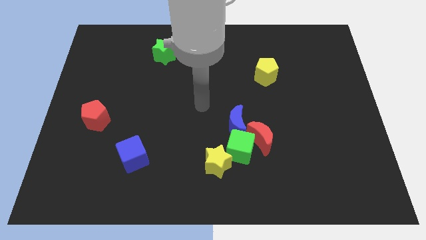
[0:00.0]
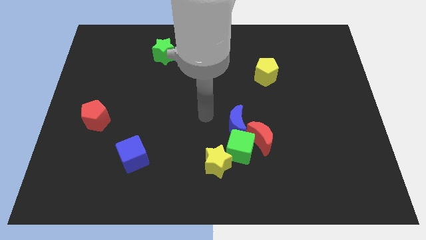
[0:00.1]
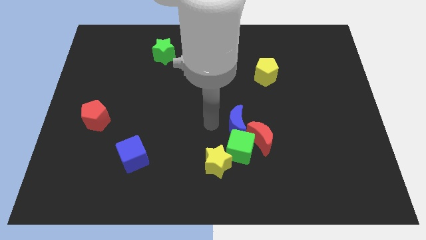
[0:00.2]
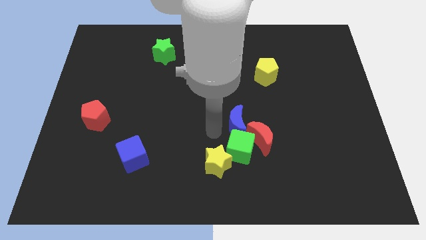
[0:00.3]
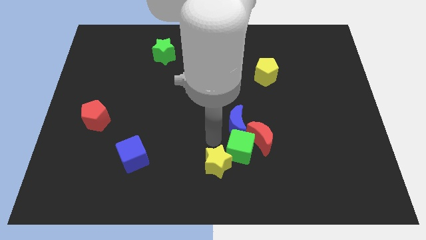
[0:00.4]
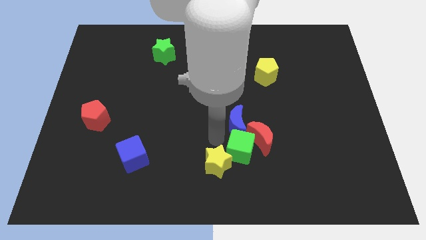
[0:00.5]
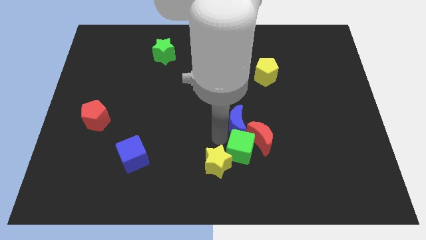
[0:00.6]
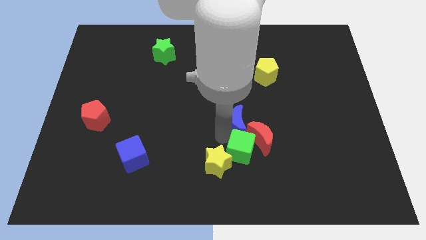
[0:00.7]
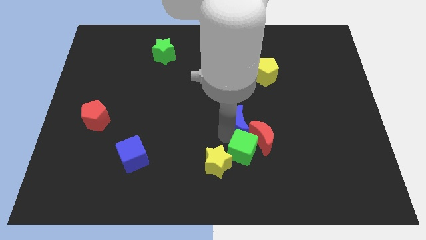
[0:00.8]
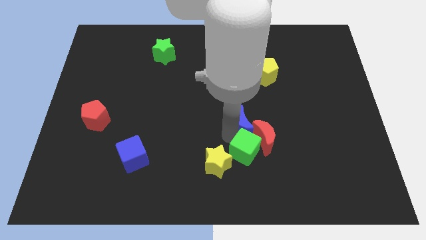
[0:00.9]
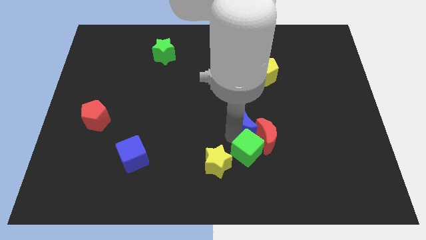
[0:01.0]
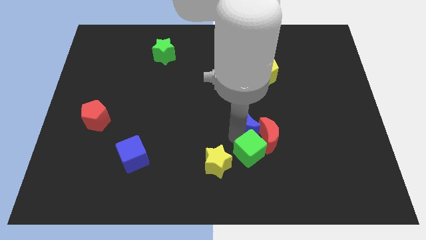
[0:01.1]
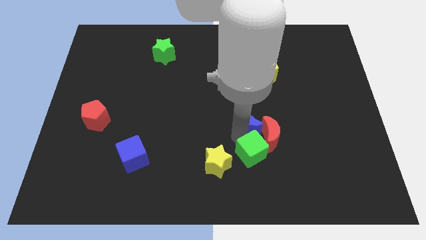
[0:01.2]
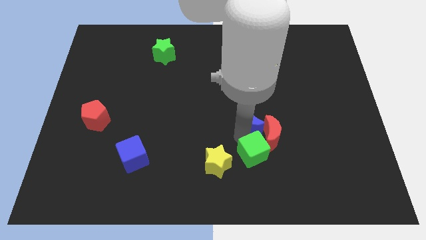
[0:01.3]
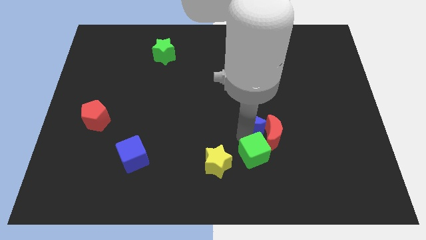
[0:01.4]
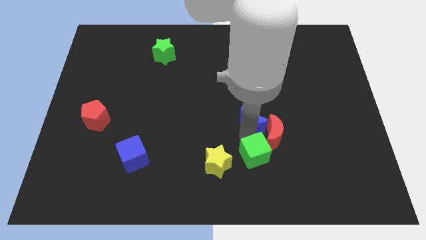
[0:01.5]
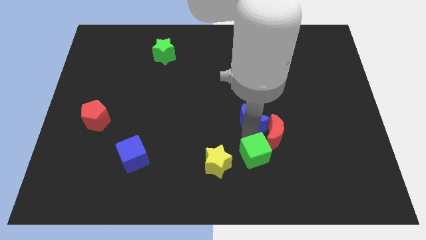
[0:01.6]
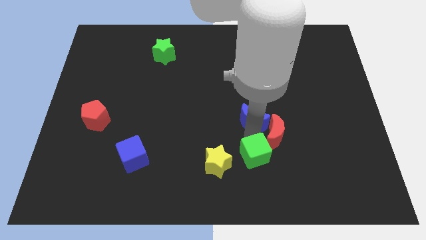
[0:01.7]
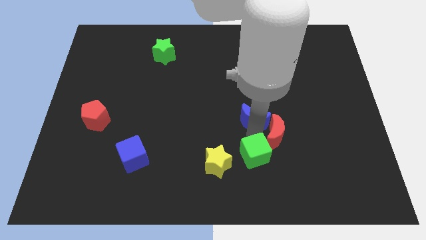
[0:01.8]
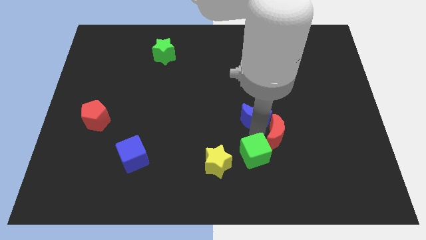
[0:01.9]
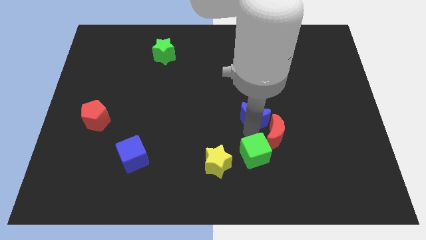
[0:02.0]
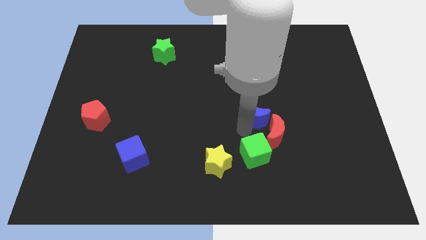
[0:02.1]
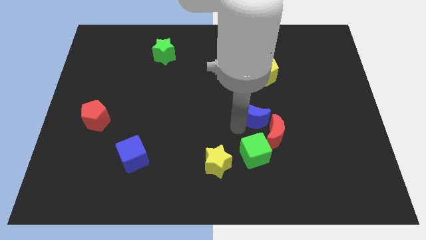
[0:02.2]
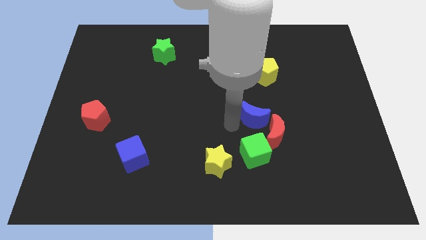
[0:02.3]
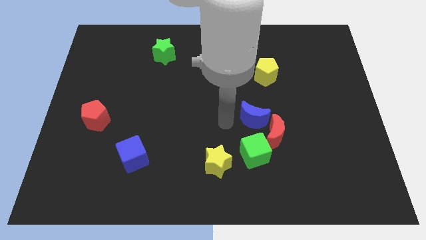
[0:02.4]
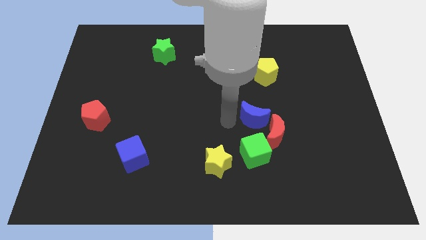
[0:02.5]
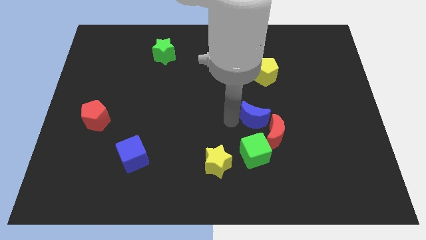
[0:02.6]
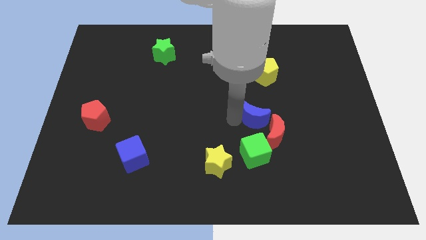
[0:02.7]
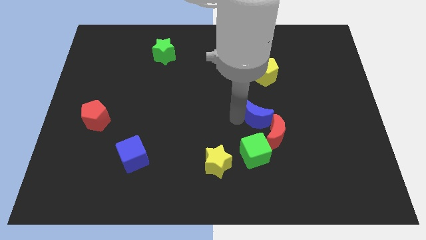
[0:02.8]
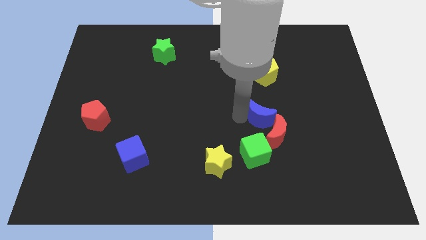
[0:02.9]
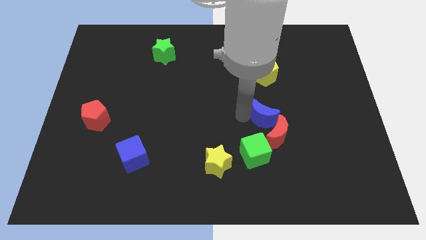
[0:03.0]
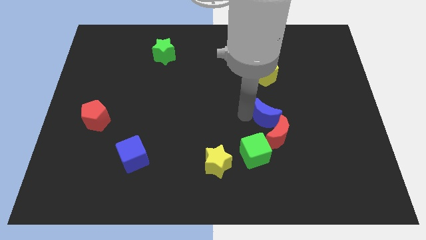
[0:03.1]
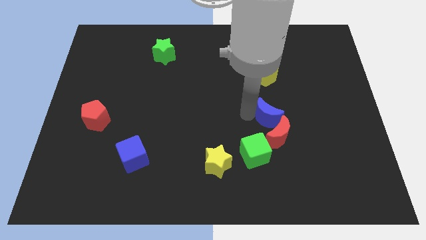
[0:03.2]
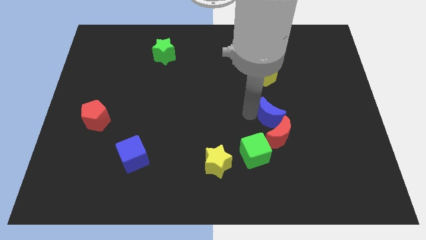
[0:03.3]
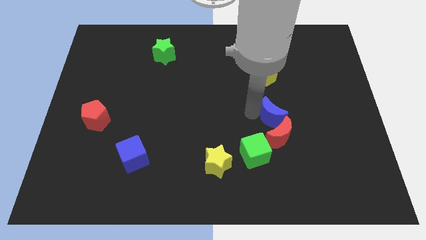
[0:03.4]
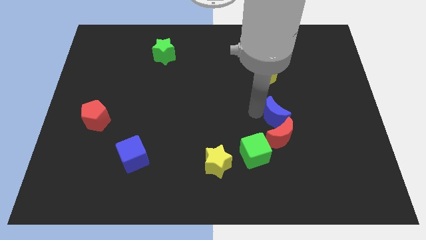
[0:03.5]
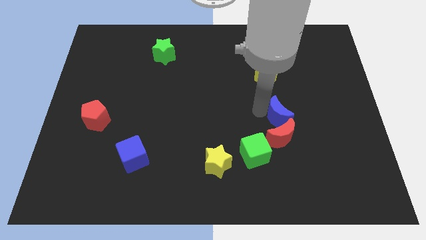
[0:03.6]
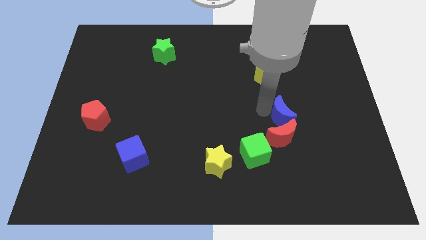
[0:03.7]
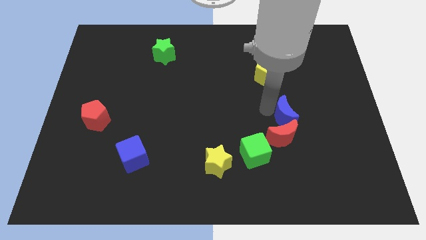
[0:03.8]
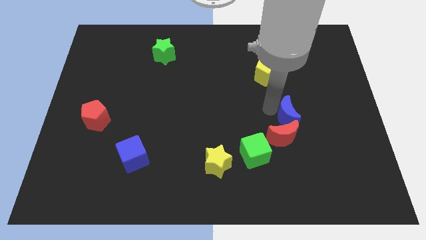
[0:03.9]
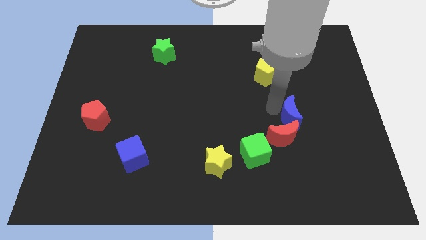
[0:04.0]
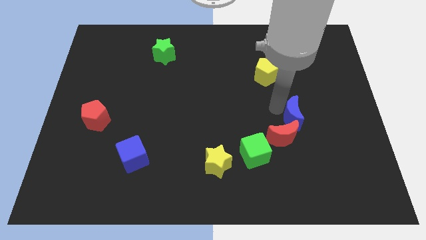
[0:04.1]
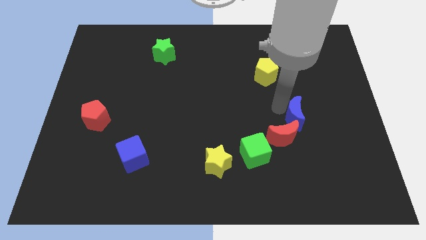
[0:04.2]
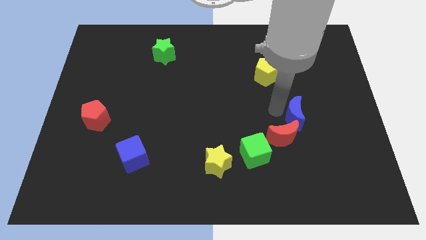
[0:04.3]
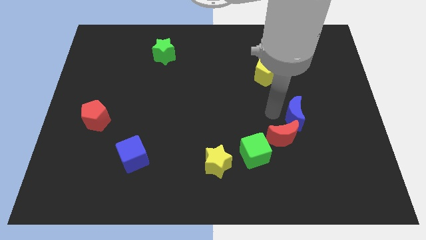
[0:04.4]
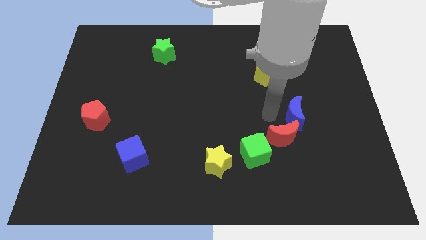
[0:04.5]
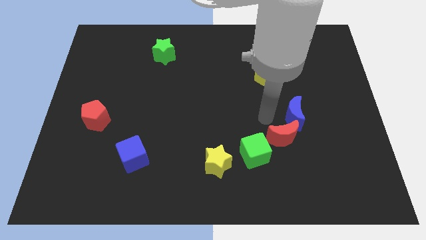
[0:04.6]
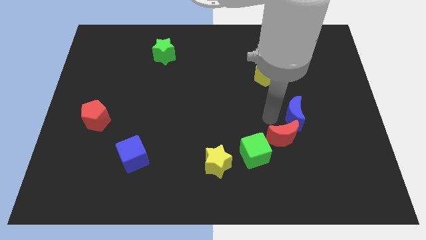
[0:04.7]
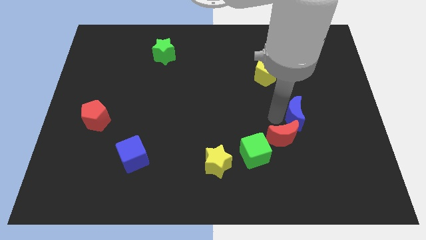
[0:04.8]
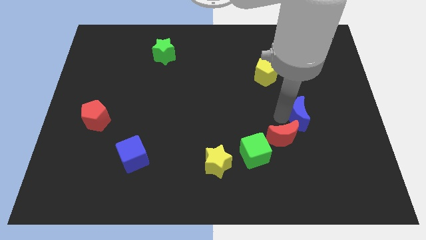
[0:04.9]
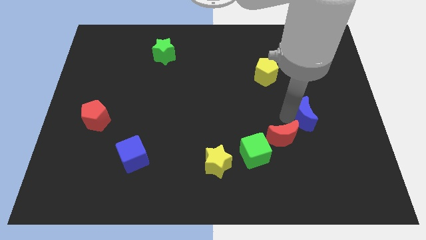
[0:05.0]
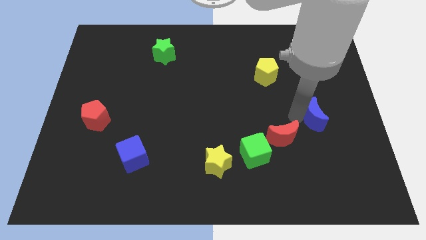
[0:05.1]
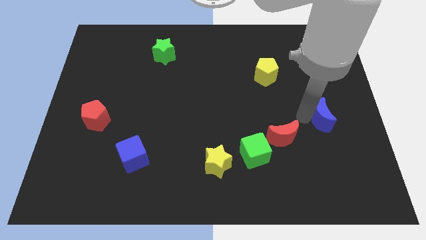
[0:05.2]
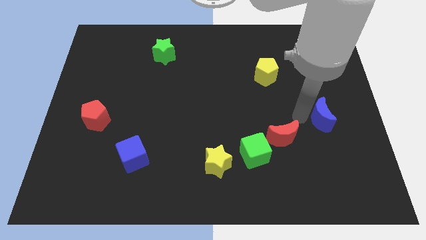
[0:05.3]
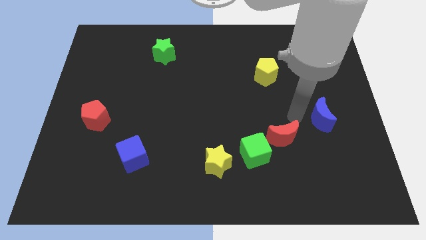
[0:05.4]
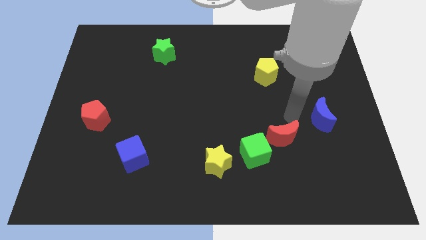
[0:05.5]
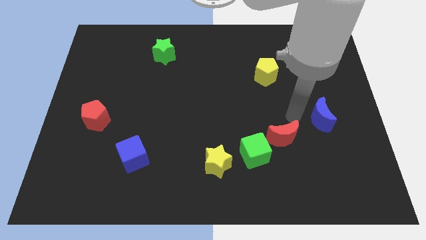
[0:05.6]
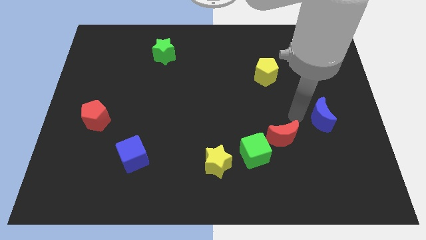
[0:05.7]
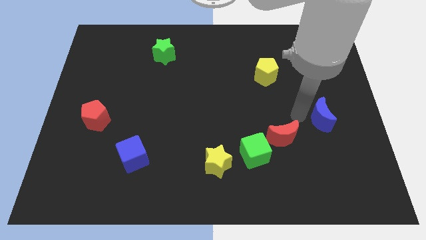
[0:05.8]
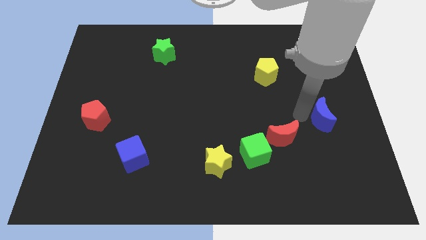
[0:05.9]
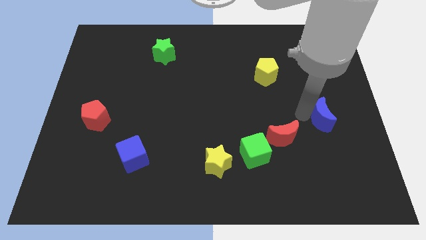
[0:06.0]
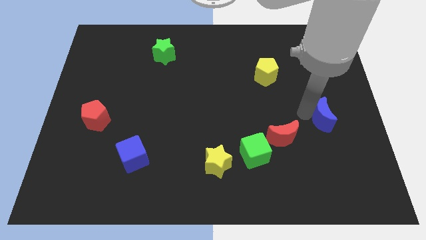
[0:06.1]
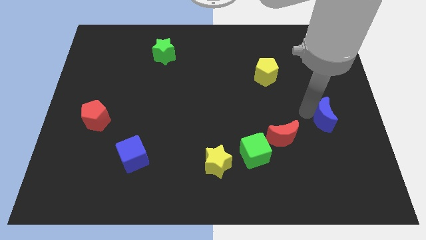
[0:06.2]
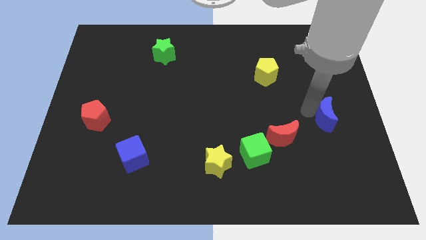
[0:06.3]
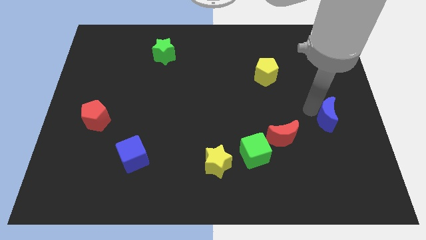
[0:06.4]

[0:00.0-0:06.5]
move the blue moon to the right side

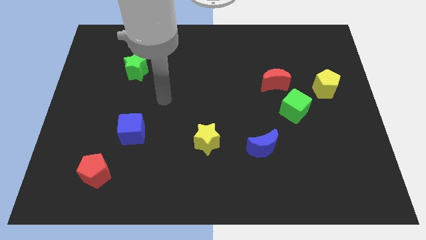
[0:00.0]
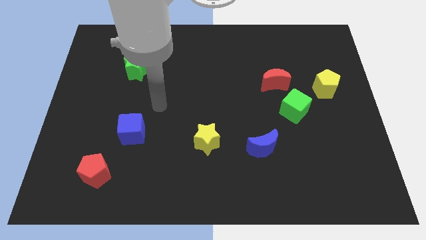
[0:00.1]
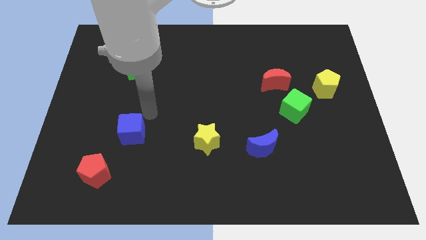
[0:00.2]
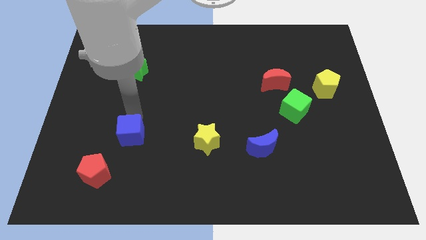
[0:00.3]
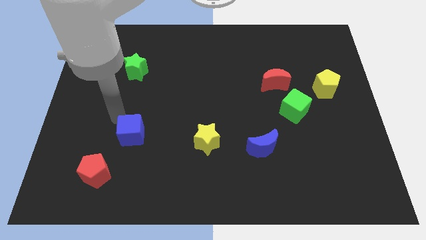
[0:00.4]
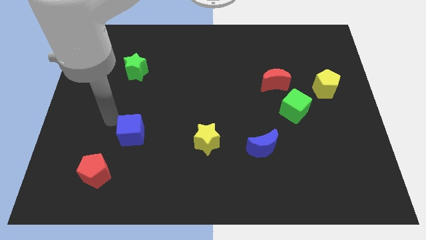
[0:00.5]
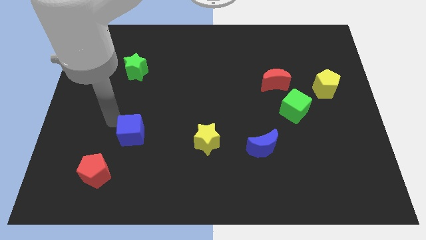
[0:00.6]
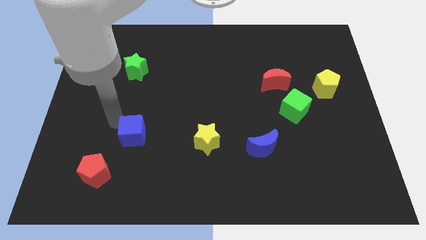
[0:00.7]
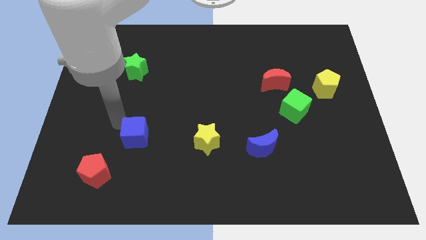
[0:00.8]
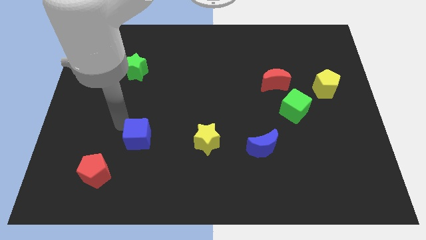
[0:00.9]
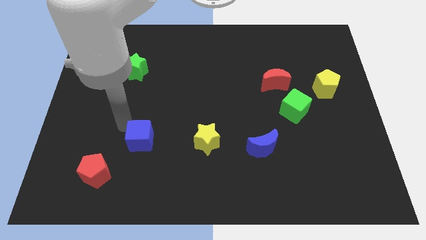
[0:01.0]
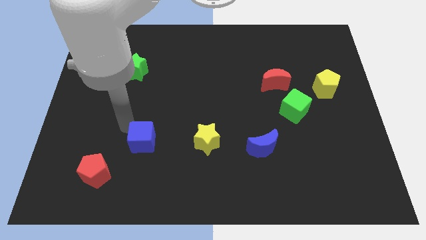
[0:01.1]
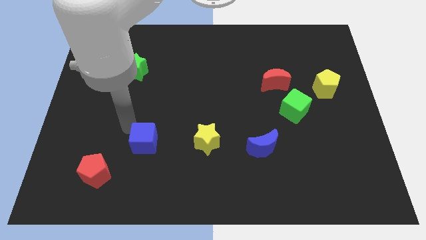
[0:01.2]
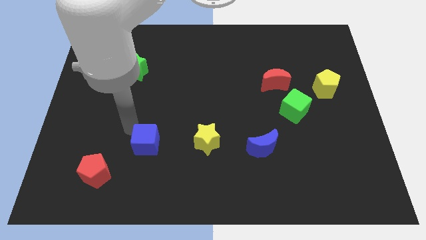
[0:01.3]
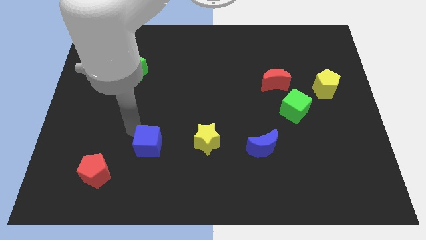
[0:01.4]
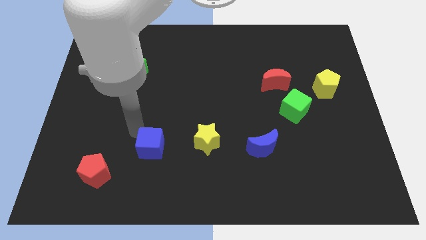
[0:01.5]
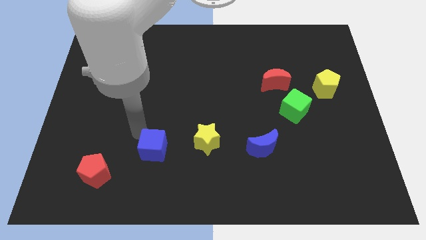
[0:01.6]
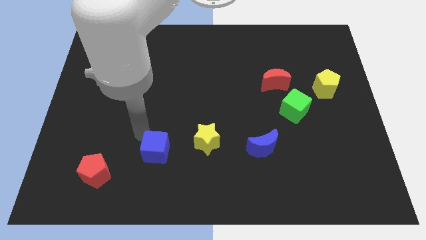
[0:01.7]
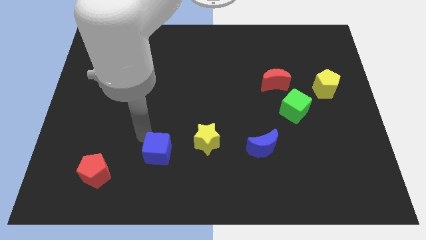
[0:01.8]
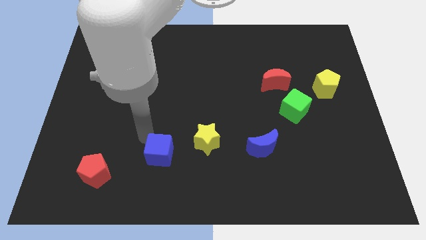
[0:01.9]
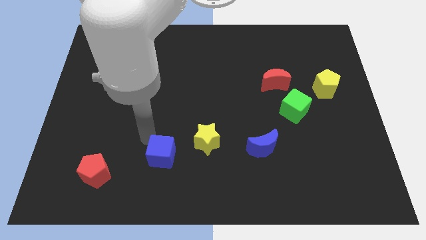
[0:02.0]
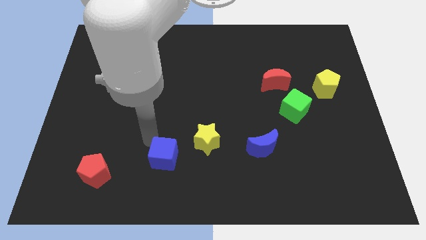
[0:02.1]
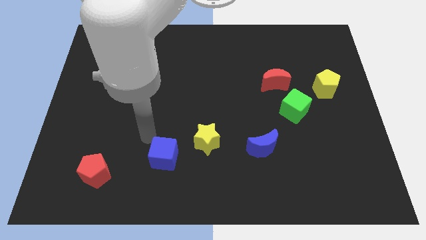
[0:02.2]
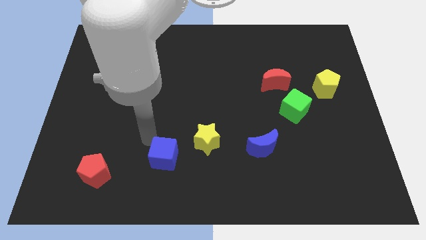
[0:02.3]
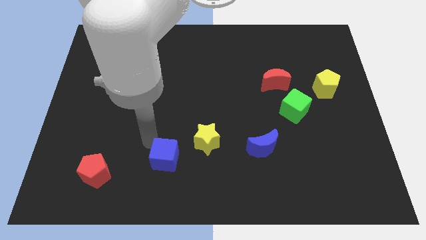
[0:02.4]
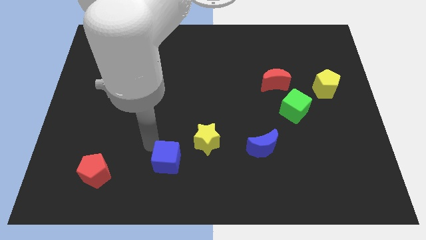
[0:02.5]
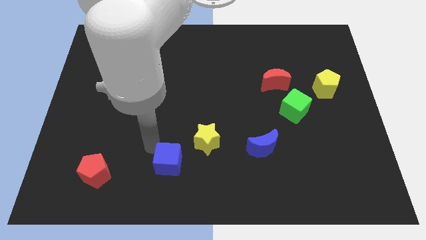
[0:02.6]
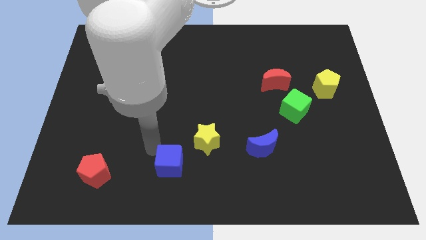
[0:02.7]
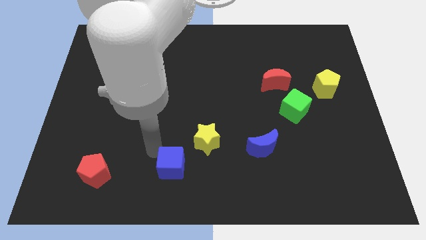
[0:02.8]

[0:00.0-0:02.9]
move the blue cube to the bottom side
